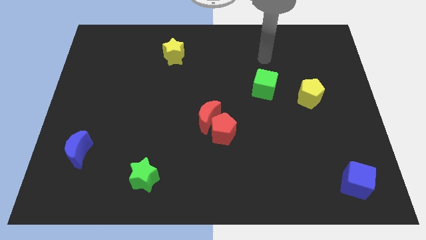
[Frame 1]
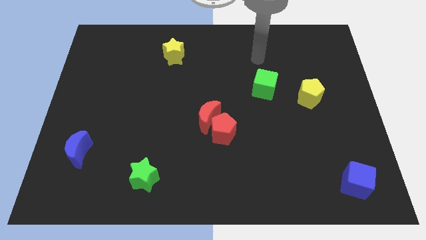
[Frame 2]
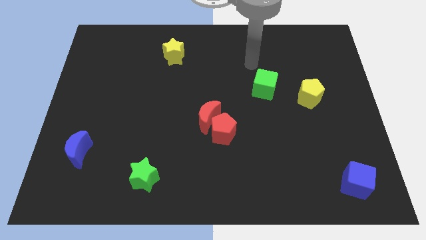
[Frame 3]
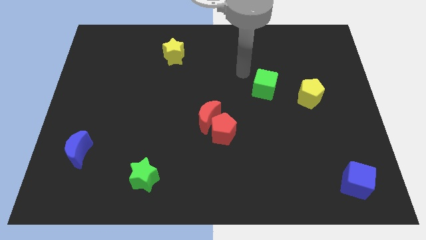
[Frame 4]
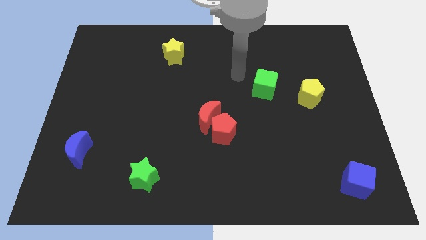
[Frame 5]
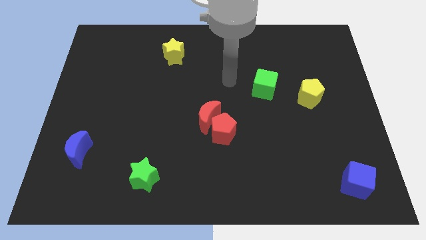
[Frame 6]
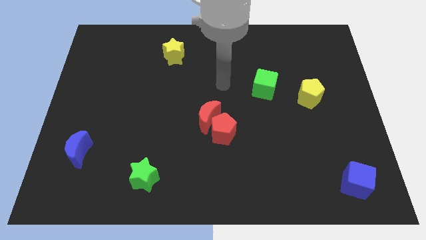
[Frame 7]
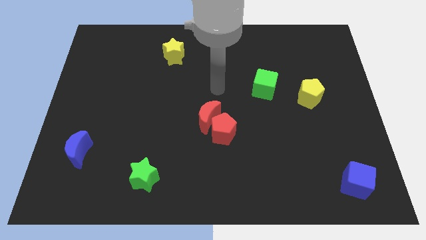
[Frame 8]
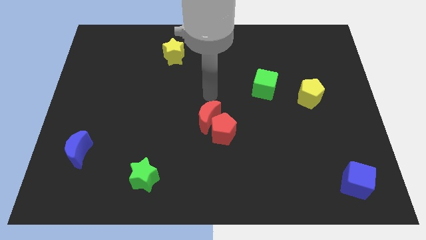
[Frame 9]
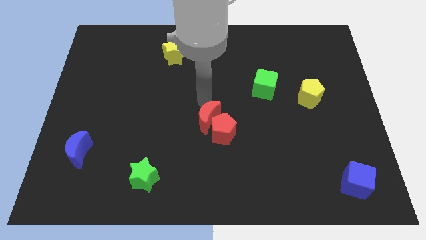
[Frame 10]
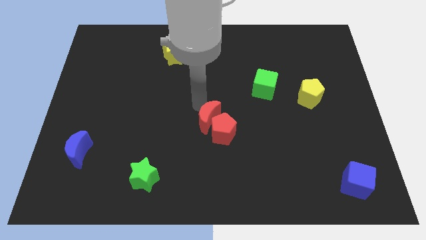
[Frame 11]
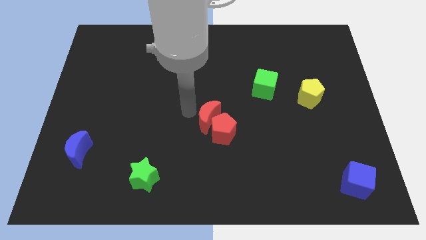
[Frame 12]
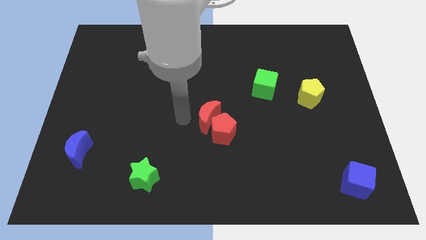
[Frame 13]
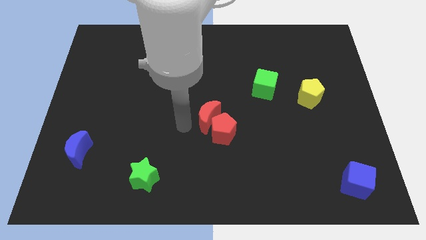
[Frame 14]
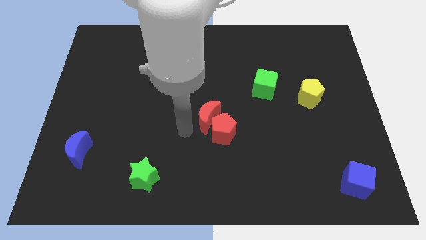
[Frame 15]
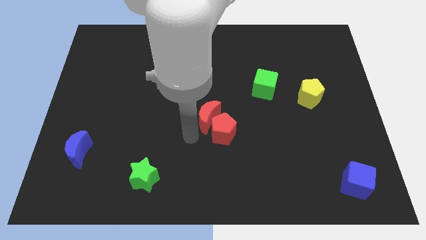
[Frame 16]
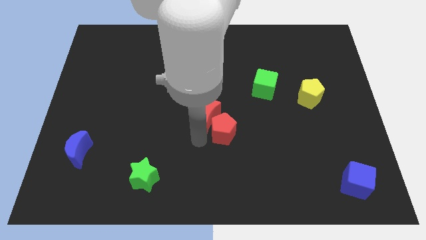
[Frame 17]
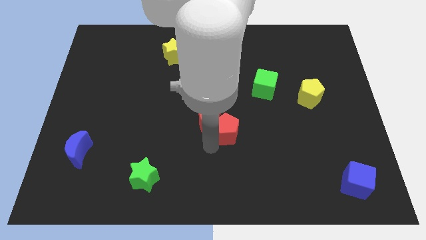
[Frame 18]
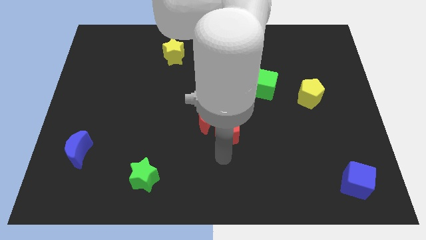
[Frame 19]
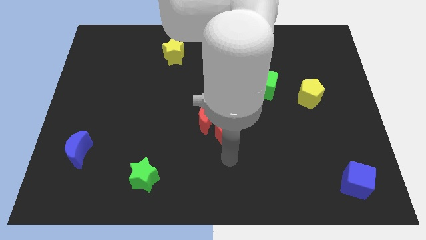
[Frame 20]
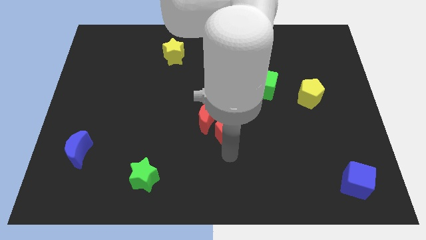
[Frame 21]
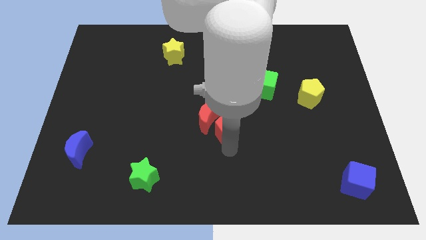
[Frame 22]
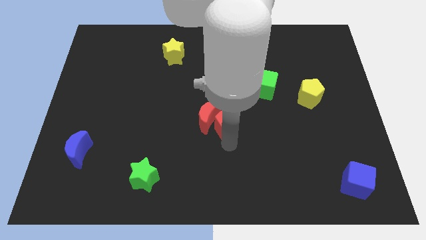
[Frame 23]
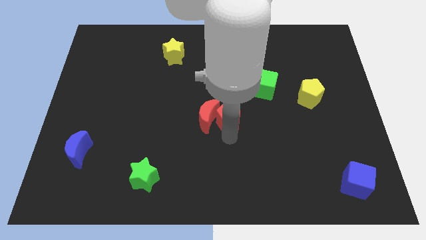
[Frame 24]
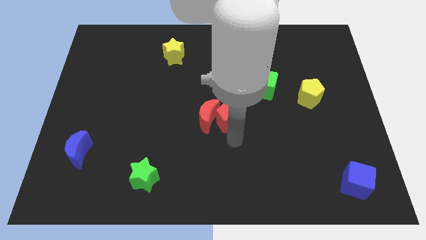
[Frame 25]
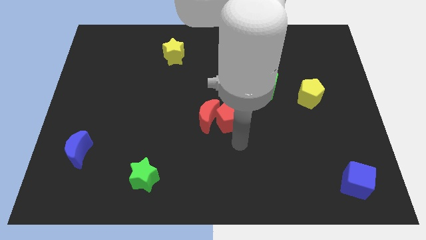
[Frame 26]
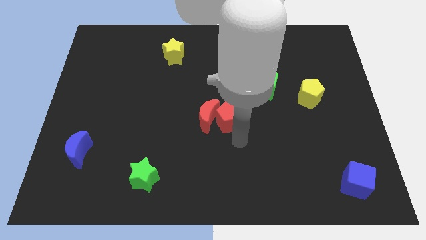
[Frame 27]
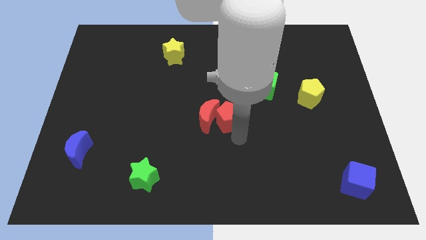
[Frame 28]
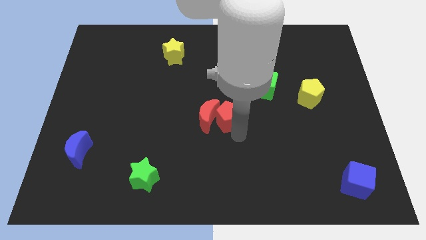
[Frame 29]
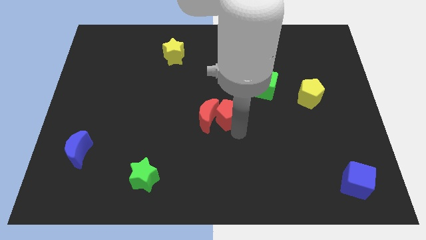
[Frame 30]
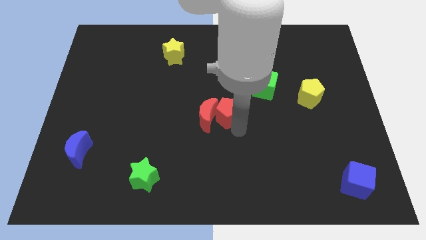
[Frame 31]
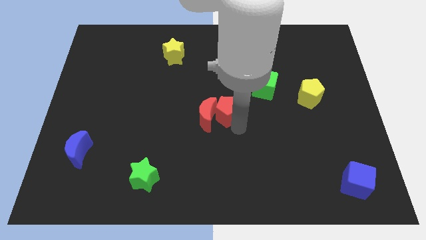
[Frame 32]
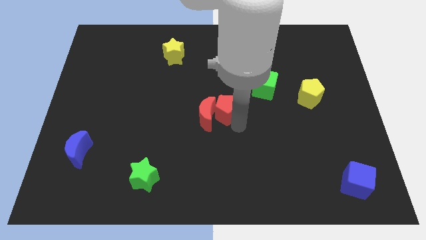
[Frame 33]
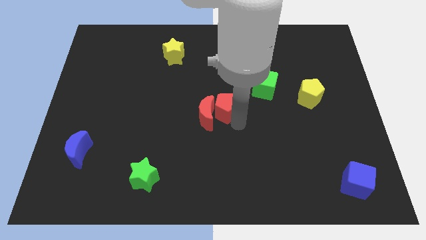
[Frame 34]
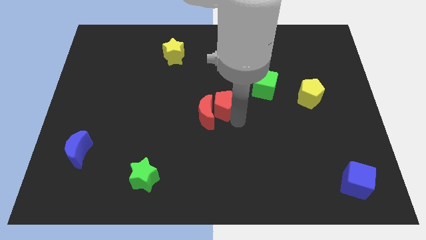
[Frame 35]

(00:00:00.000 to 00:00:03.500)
slightly push the red pentagon up

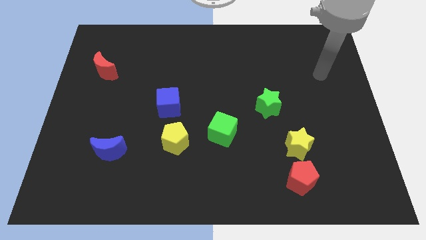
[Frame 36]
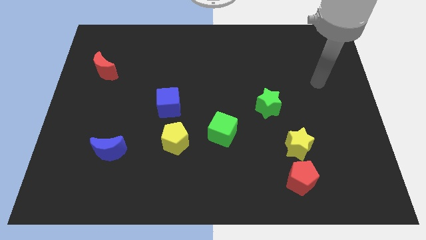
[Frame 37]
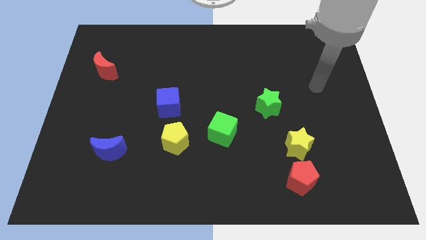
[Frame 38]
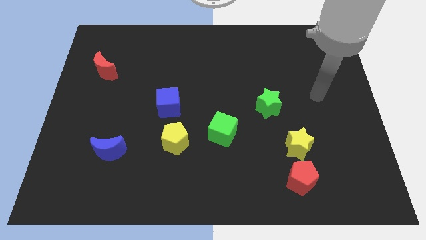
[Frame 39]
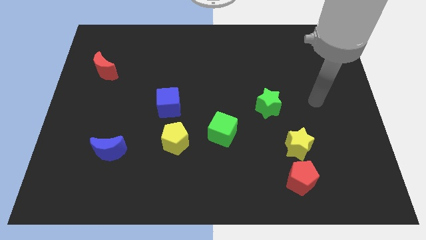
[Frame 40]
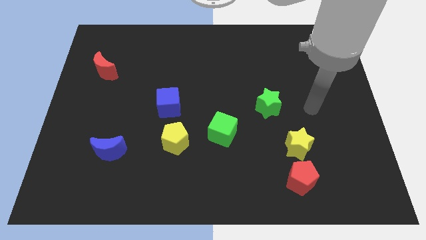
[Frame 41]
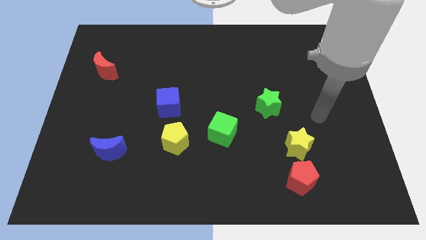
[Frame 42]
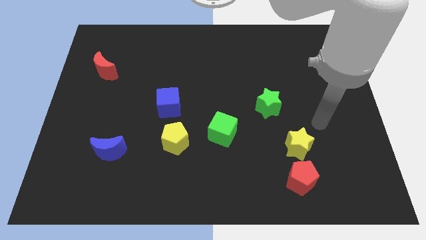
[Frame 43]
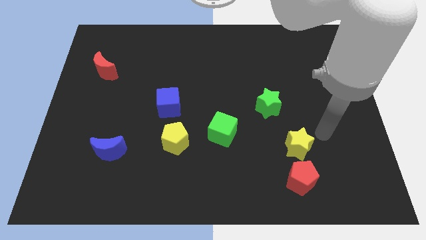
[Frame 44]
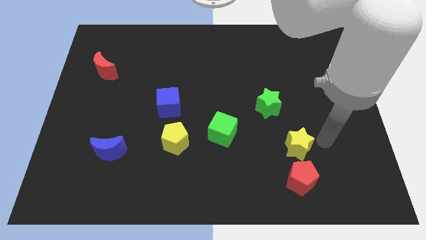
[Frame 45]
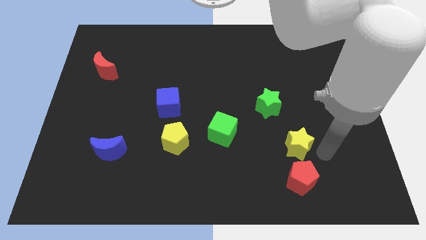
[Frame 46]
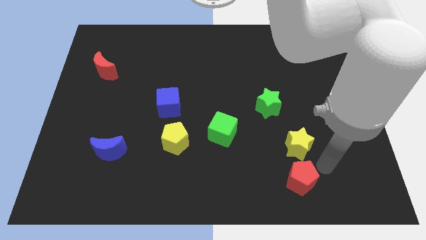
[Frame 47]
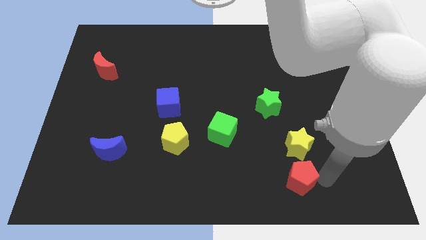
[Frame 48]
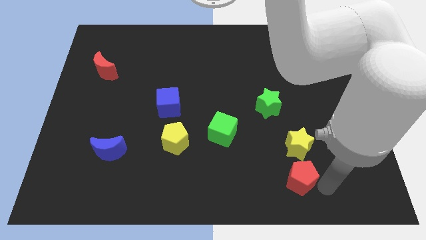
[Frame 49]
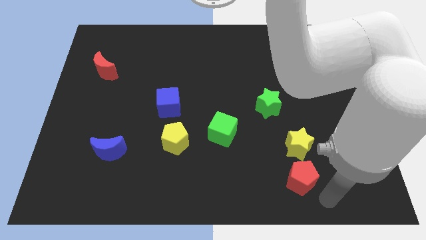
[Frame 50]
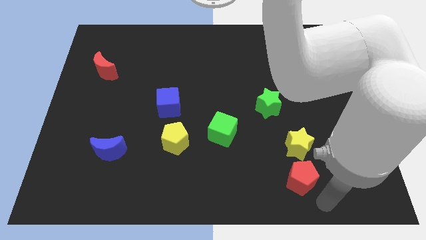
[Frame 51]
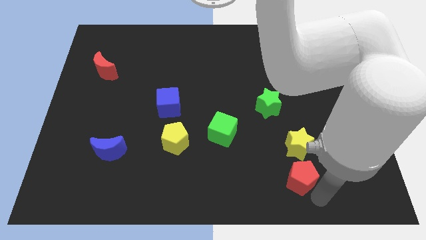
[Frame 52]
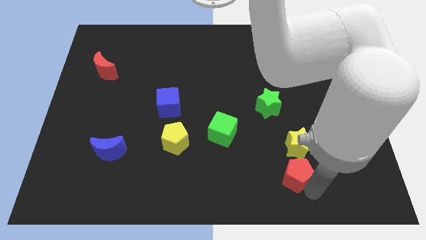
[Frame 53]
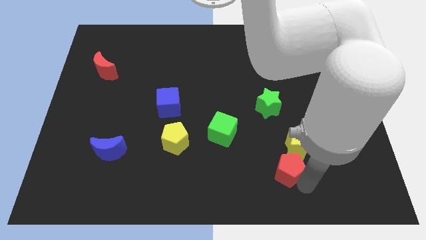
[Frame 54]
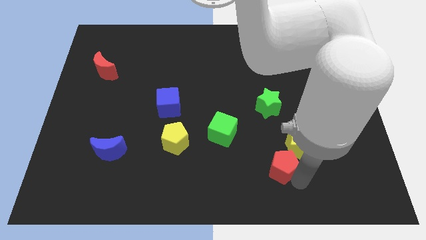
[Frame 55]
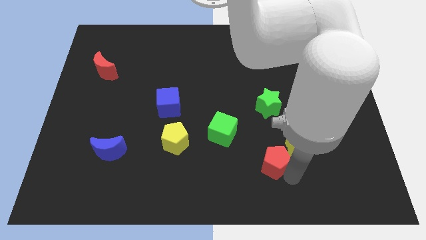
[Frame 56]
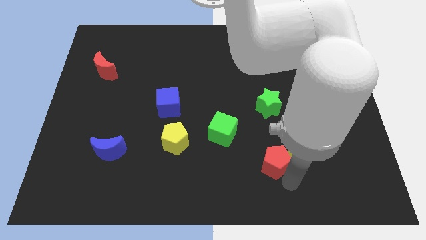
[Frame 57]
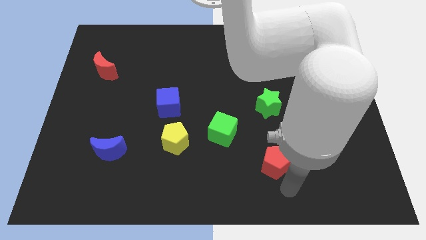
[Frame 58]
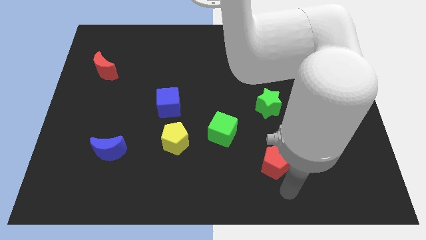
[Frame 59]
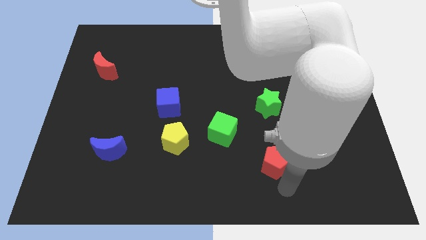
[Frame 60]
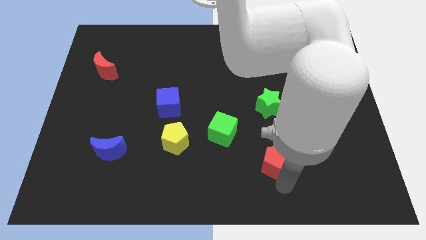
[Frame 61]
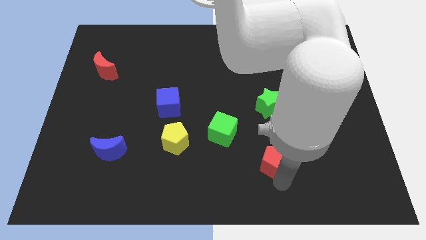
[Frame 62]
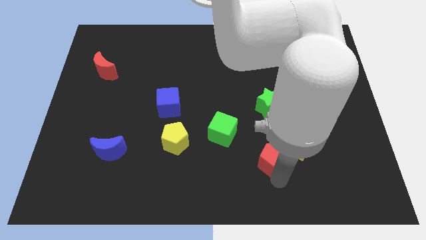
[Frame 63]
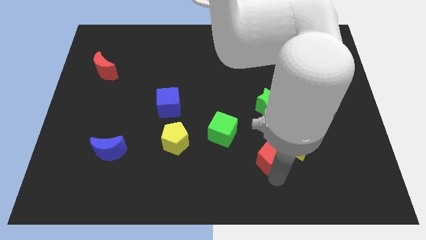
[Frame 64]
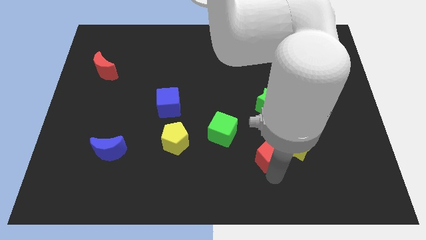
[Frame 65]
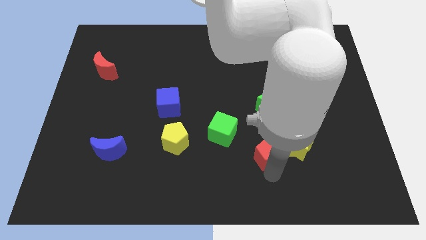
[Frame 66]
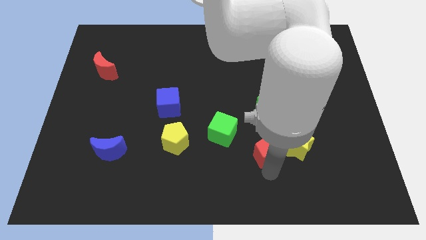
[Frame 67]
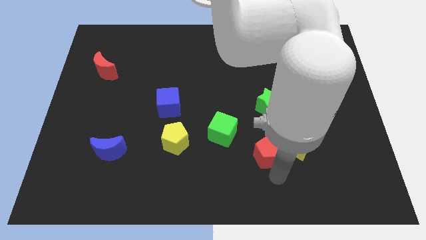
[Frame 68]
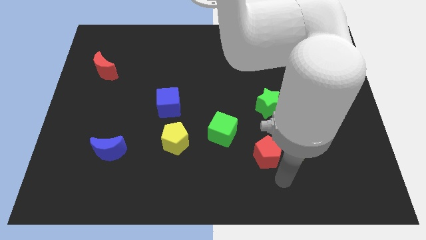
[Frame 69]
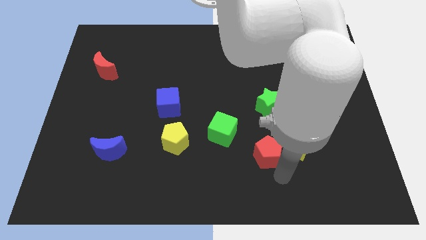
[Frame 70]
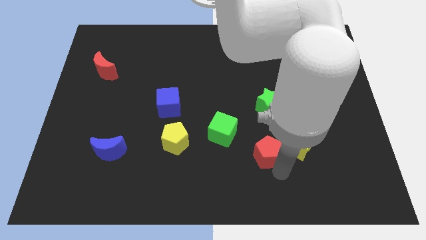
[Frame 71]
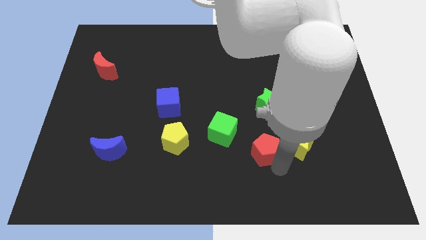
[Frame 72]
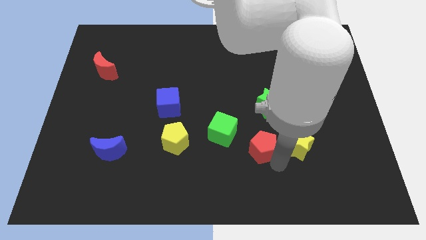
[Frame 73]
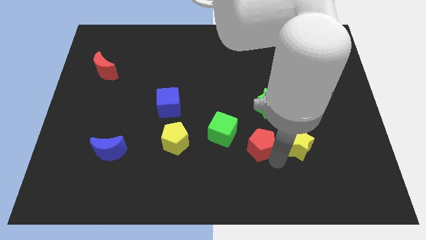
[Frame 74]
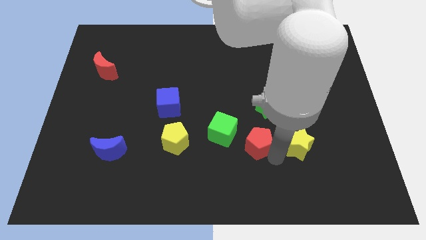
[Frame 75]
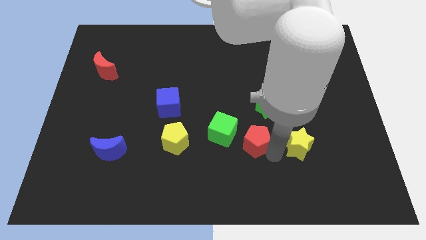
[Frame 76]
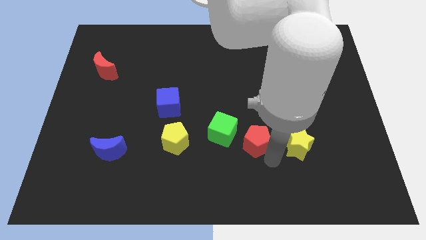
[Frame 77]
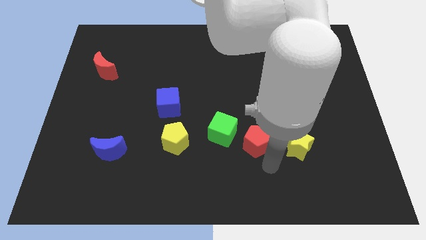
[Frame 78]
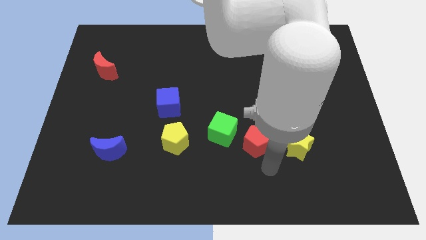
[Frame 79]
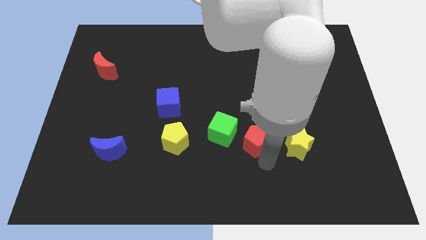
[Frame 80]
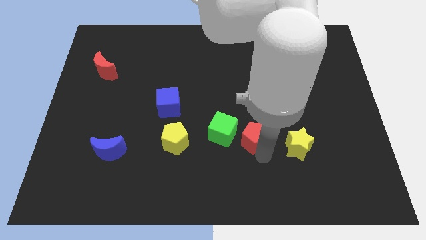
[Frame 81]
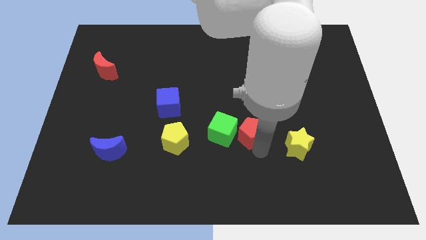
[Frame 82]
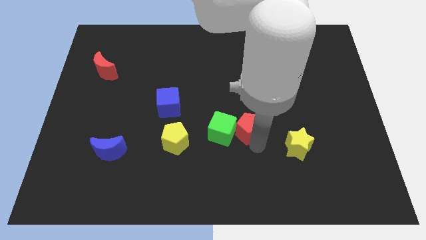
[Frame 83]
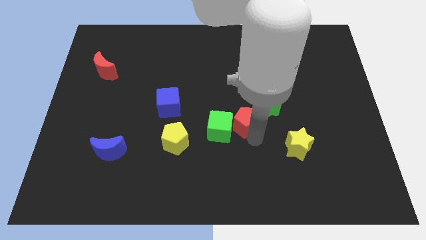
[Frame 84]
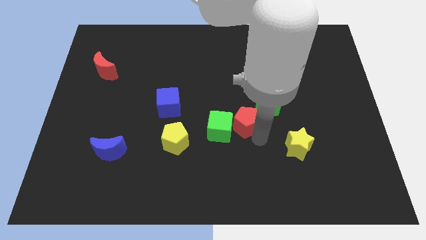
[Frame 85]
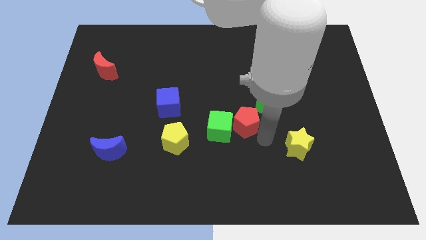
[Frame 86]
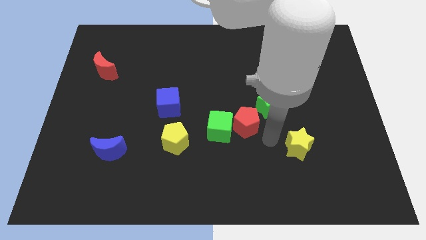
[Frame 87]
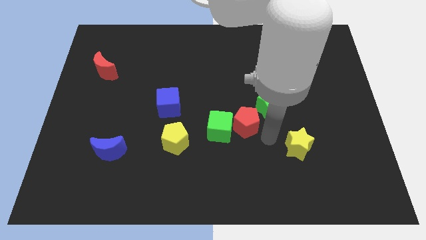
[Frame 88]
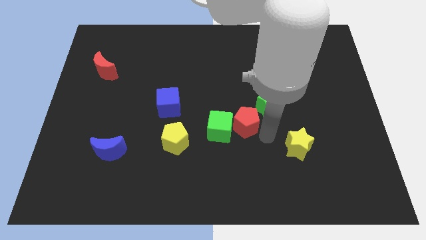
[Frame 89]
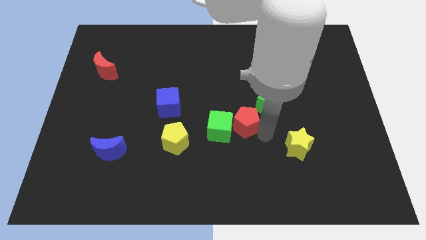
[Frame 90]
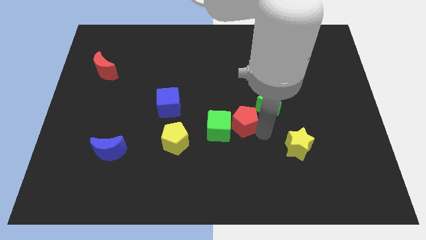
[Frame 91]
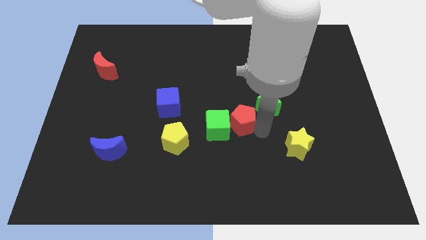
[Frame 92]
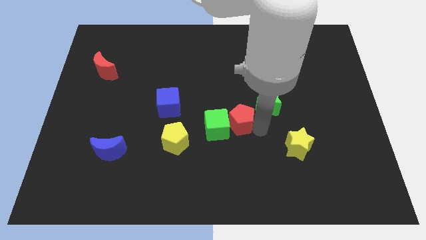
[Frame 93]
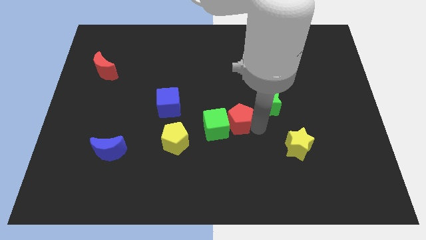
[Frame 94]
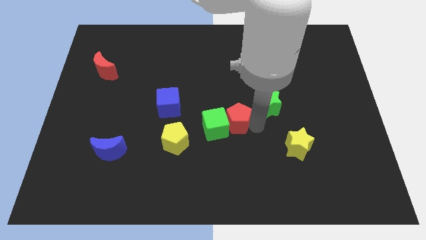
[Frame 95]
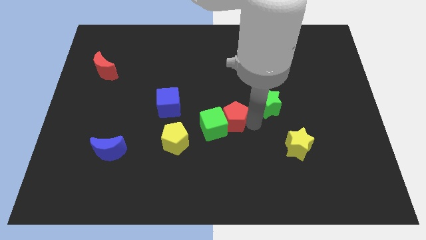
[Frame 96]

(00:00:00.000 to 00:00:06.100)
push the red pentagon upwards and to the left
